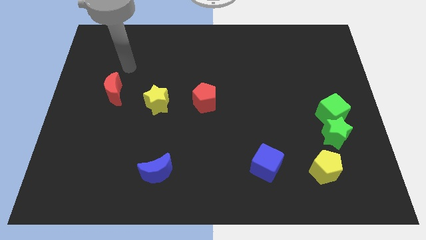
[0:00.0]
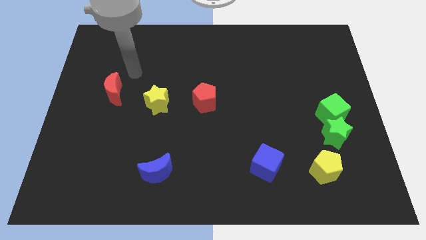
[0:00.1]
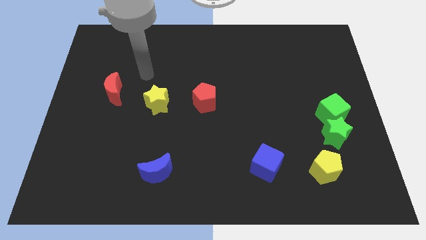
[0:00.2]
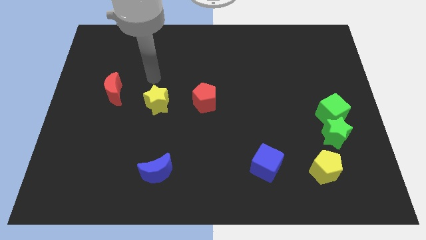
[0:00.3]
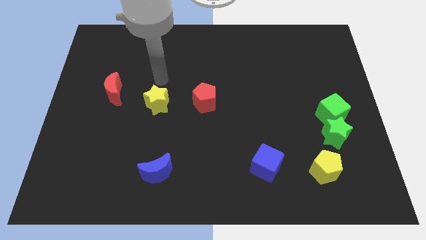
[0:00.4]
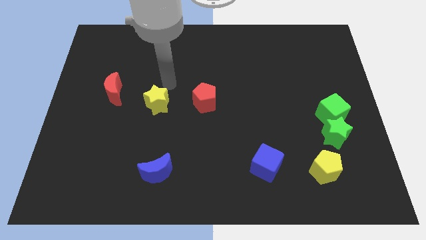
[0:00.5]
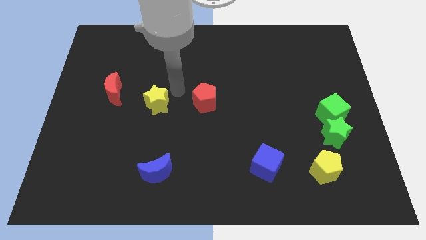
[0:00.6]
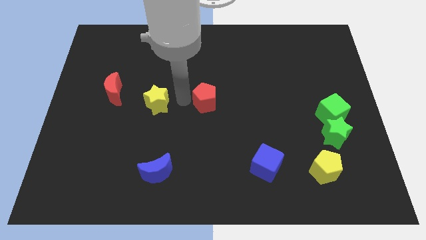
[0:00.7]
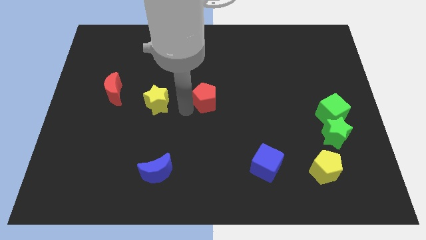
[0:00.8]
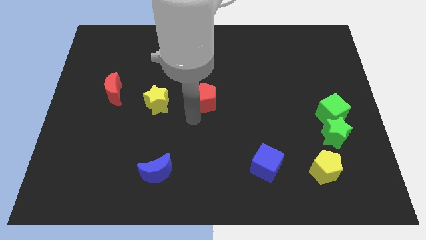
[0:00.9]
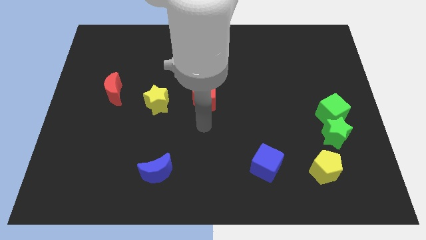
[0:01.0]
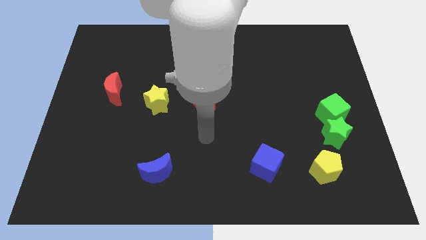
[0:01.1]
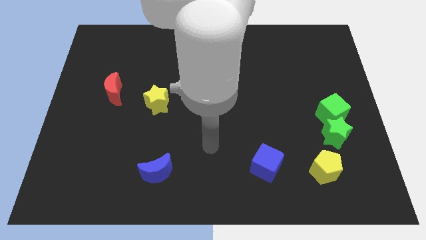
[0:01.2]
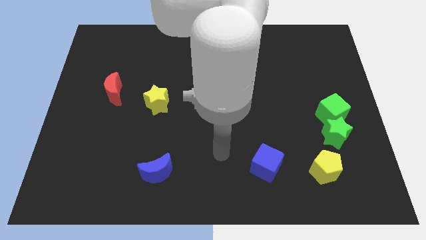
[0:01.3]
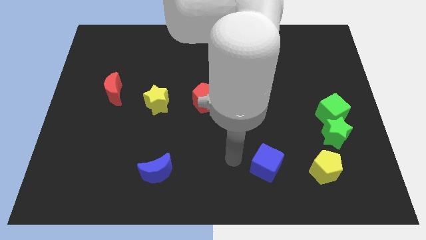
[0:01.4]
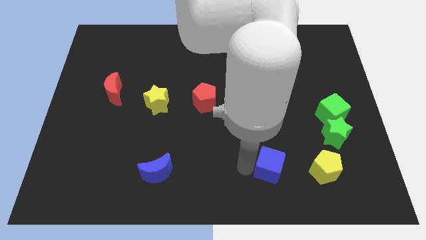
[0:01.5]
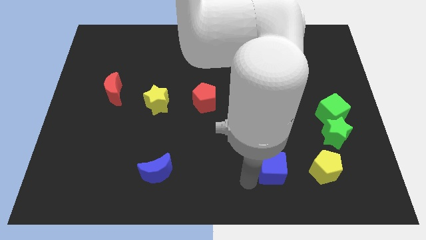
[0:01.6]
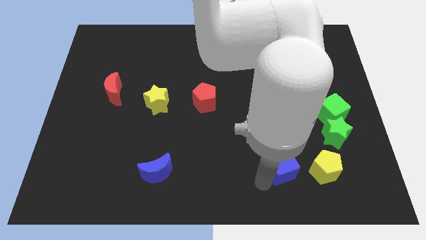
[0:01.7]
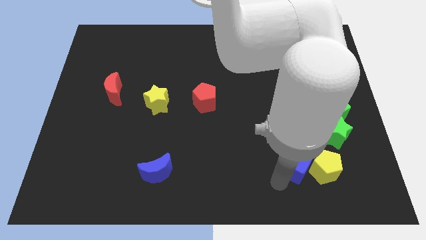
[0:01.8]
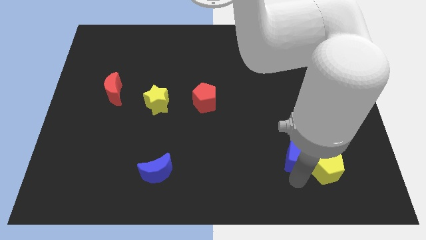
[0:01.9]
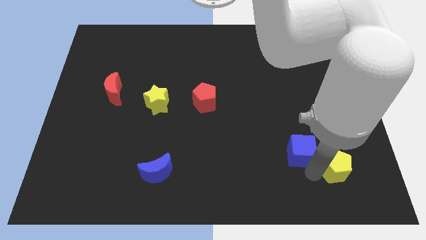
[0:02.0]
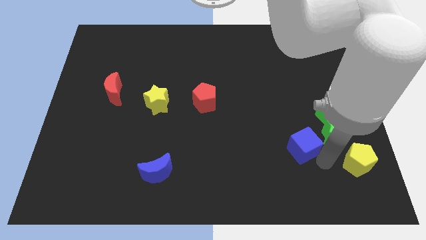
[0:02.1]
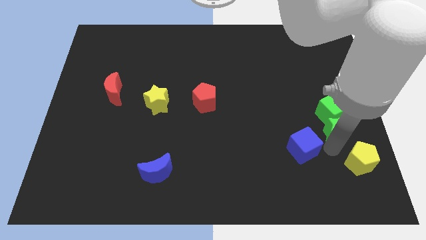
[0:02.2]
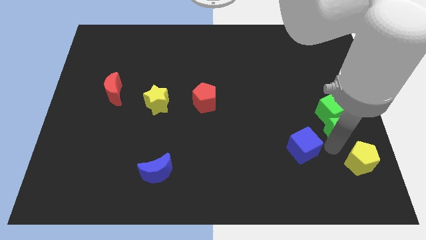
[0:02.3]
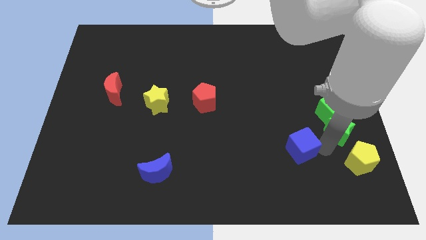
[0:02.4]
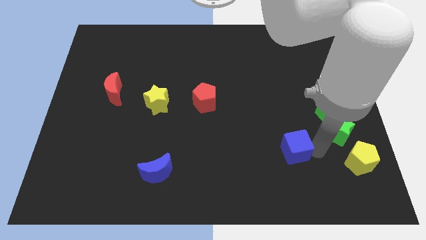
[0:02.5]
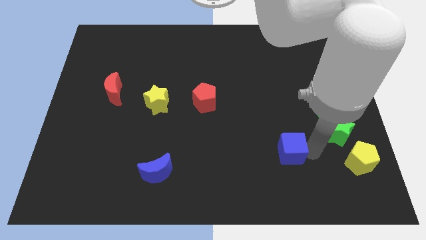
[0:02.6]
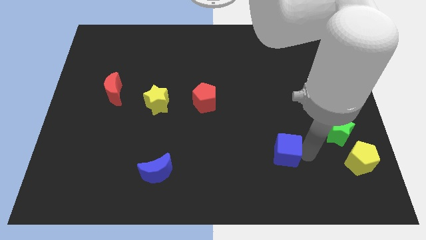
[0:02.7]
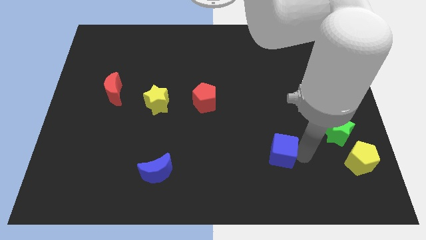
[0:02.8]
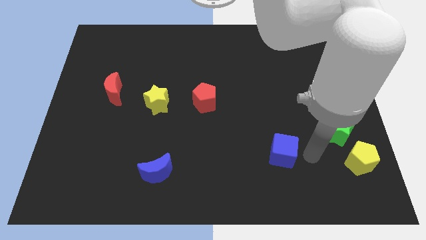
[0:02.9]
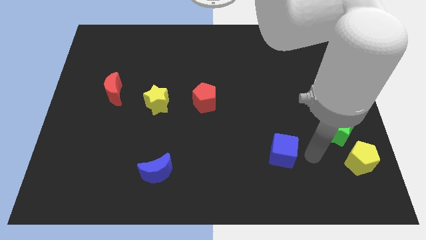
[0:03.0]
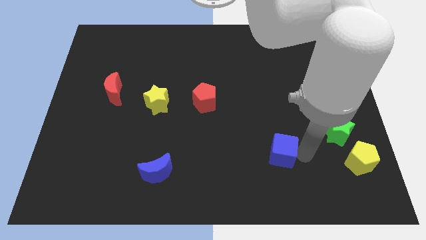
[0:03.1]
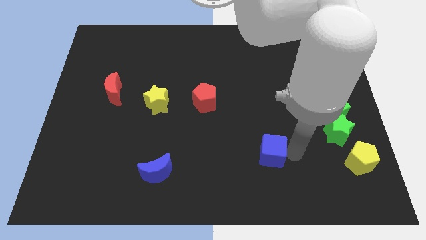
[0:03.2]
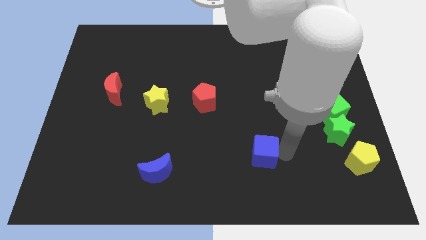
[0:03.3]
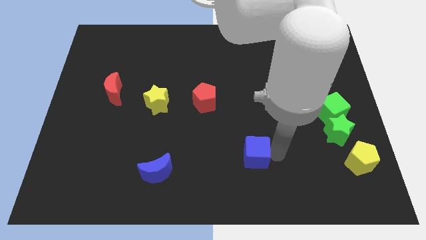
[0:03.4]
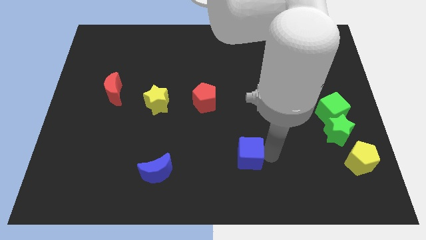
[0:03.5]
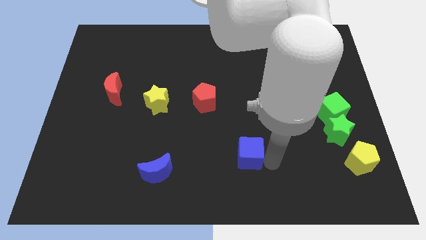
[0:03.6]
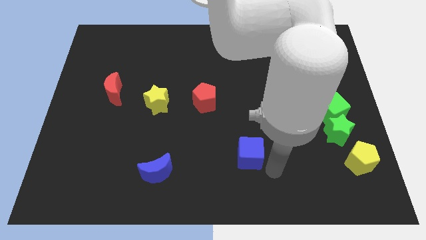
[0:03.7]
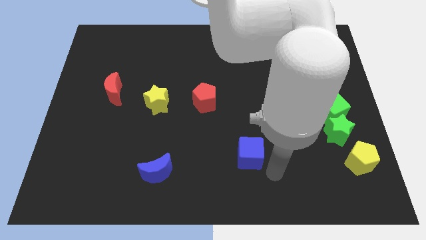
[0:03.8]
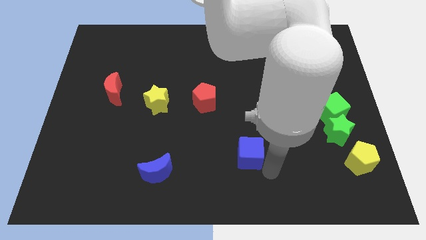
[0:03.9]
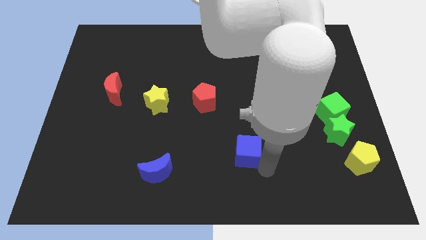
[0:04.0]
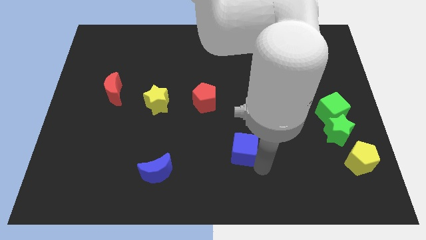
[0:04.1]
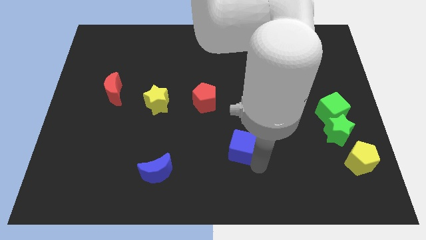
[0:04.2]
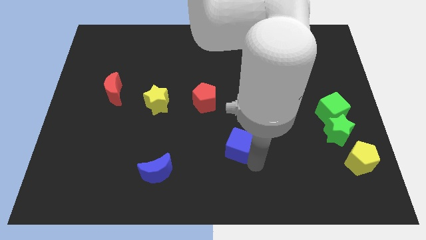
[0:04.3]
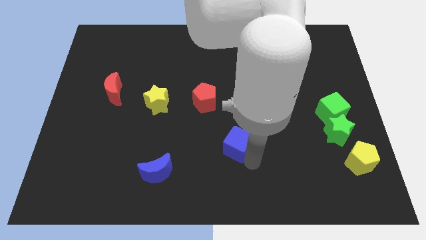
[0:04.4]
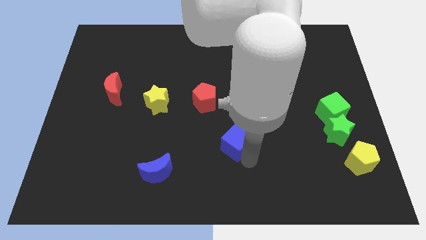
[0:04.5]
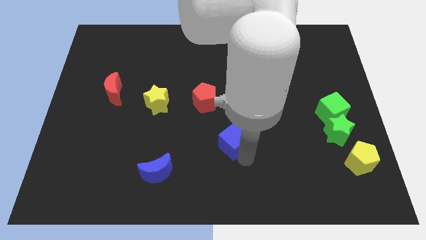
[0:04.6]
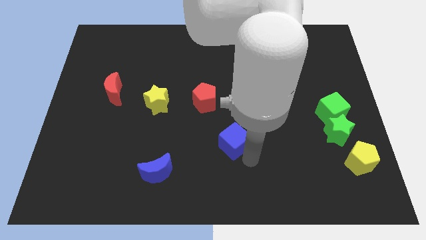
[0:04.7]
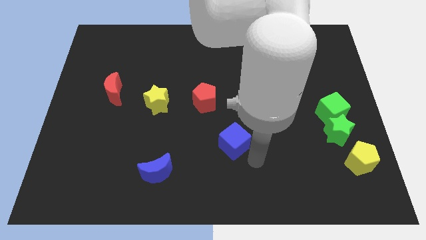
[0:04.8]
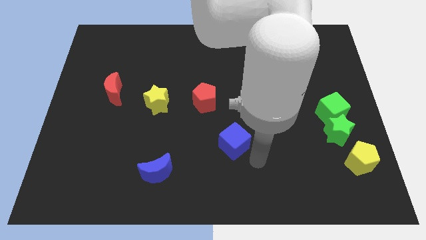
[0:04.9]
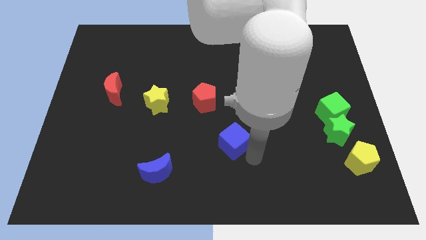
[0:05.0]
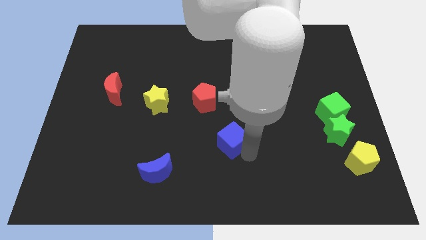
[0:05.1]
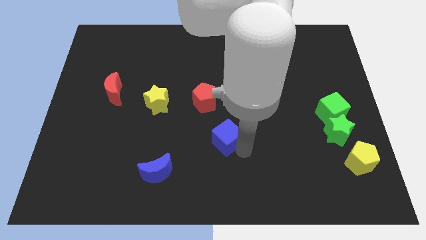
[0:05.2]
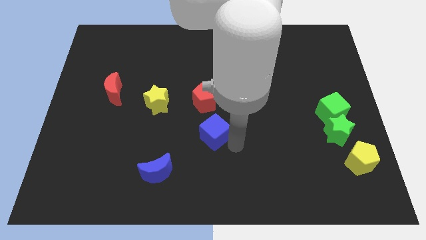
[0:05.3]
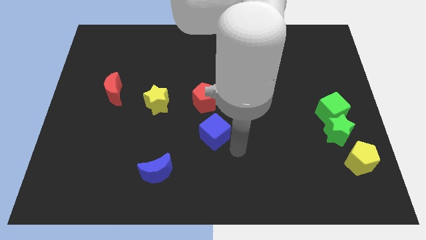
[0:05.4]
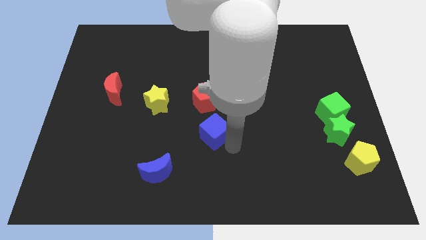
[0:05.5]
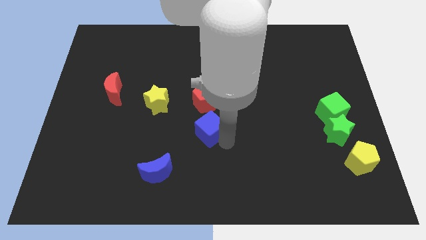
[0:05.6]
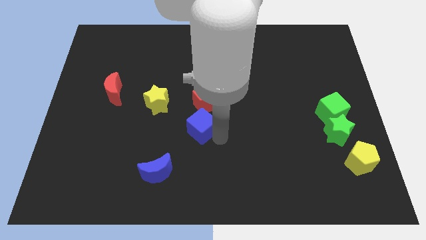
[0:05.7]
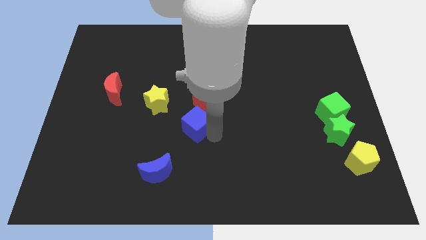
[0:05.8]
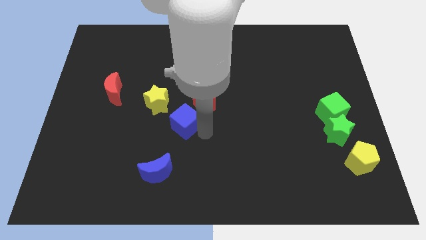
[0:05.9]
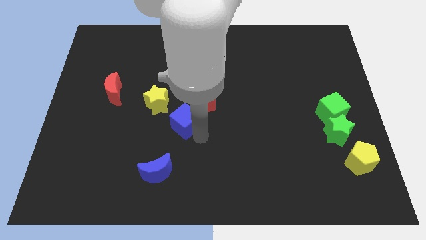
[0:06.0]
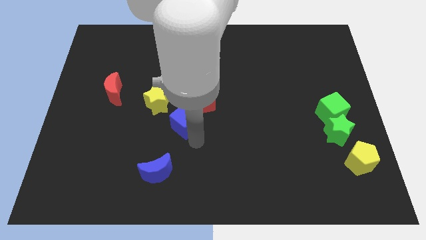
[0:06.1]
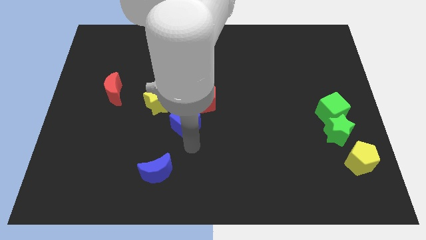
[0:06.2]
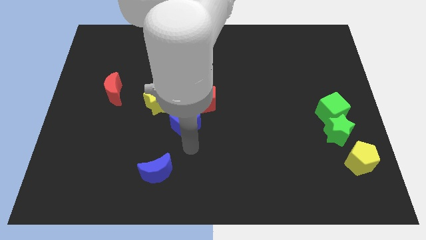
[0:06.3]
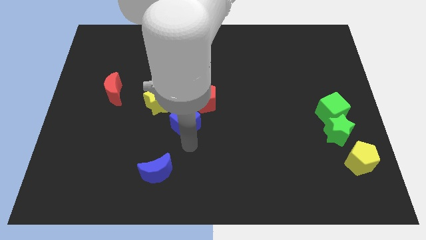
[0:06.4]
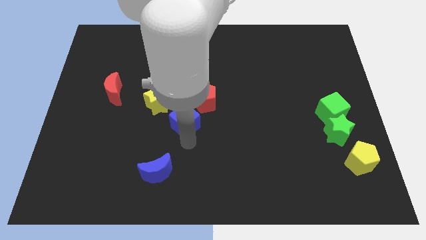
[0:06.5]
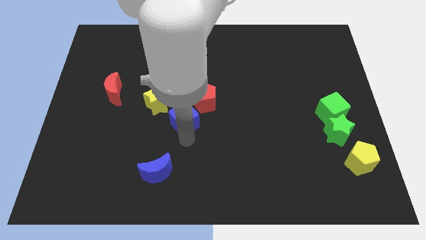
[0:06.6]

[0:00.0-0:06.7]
move the blue cube diagonally up and left

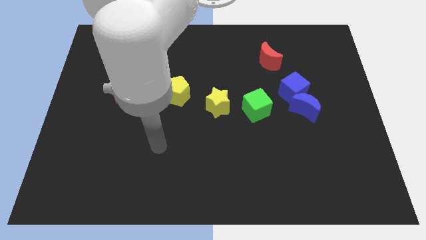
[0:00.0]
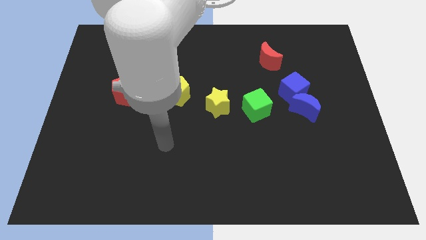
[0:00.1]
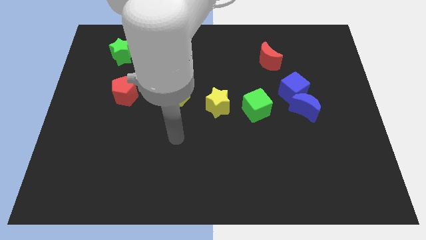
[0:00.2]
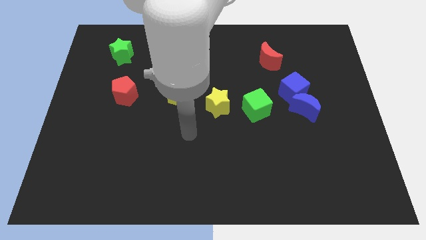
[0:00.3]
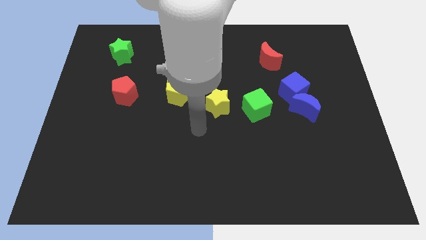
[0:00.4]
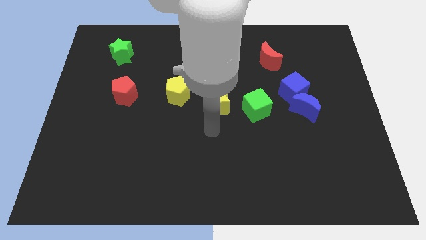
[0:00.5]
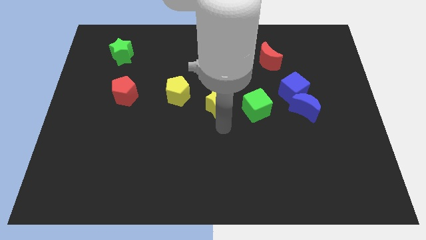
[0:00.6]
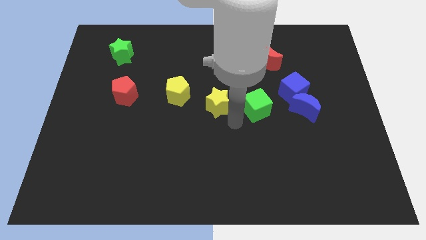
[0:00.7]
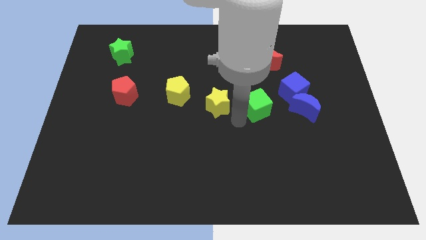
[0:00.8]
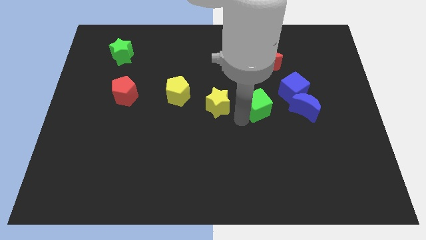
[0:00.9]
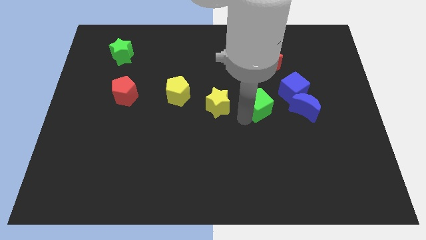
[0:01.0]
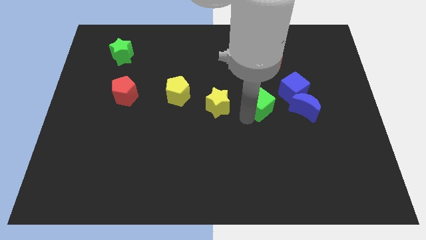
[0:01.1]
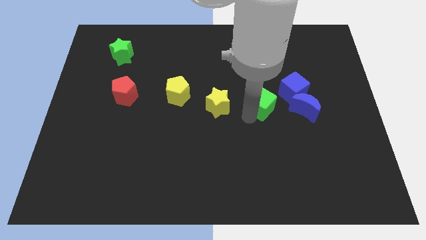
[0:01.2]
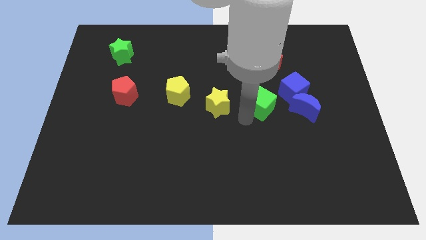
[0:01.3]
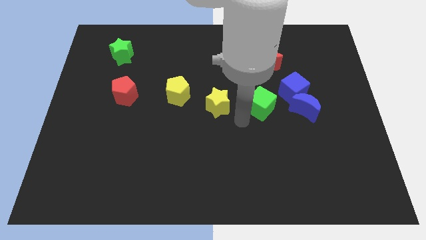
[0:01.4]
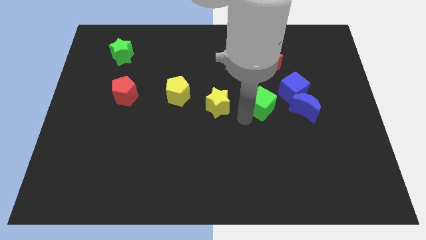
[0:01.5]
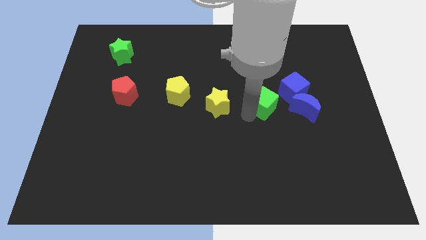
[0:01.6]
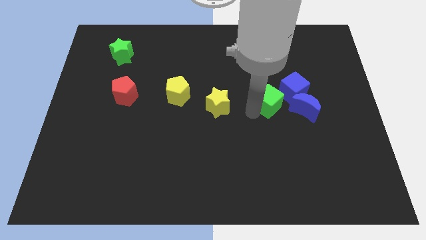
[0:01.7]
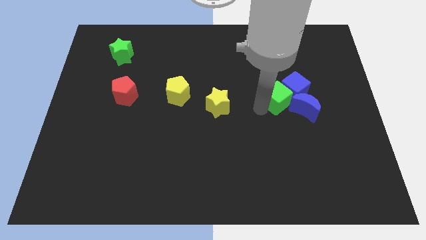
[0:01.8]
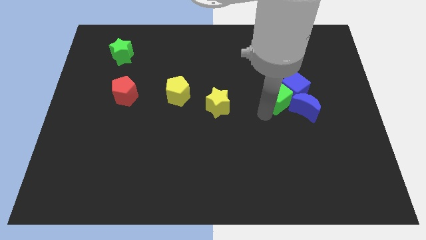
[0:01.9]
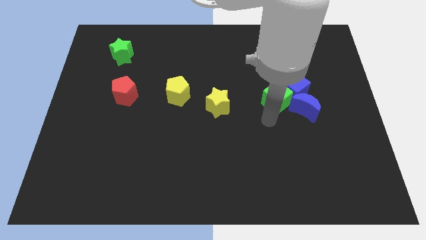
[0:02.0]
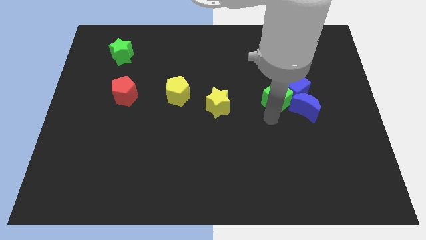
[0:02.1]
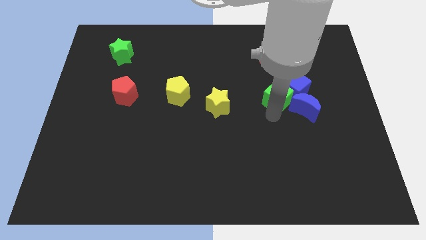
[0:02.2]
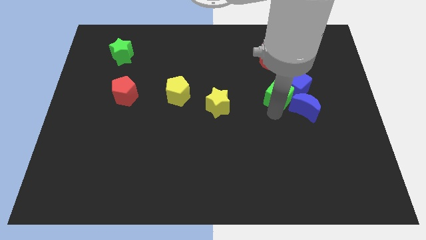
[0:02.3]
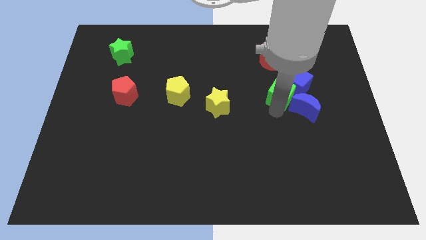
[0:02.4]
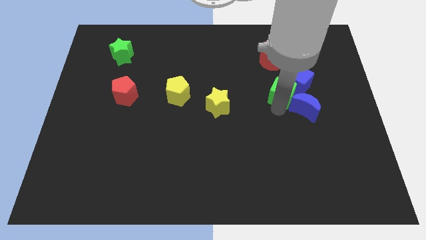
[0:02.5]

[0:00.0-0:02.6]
move the green cube a little upwards and right
